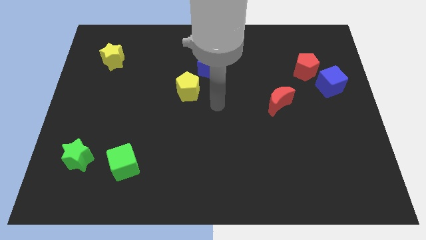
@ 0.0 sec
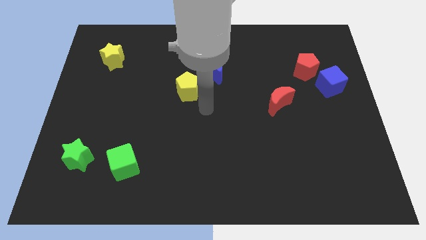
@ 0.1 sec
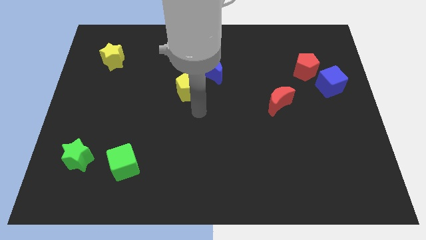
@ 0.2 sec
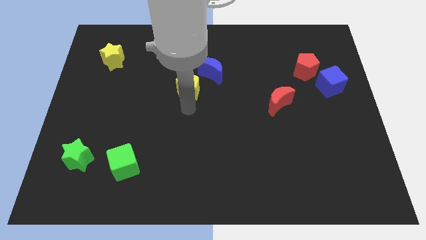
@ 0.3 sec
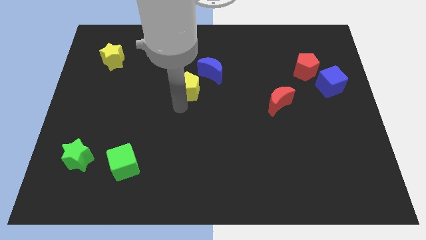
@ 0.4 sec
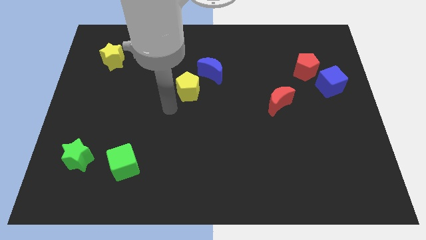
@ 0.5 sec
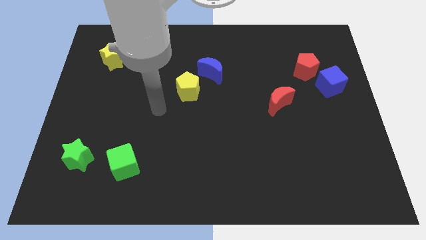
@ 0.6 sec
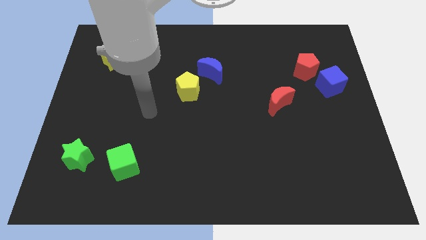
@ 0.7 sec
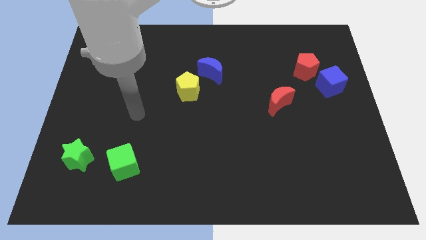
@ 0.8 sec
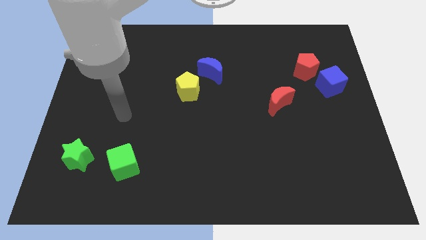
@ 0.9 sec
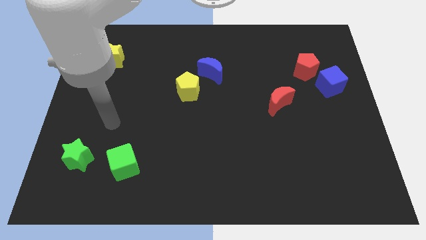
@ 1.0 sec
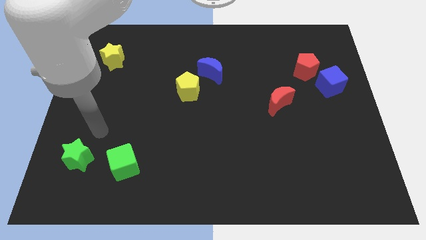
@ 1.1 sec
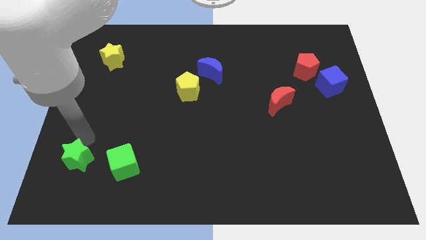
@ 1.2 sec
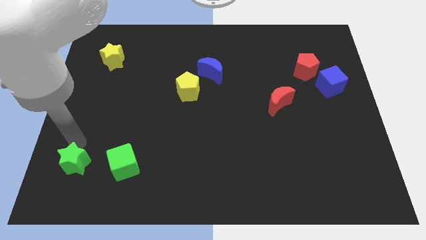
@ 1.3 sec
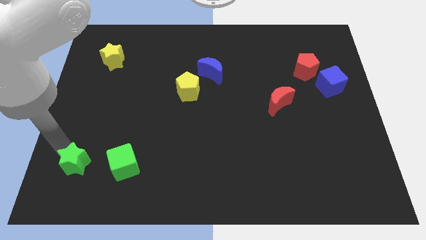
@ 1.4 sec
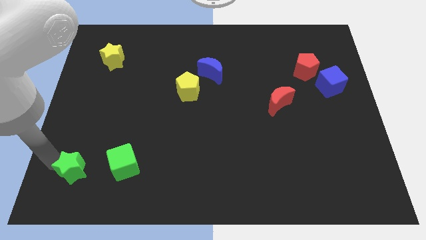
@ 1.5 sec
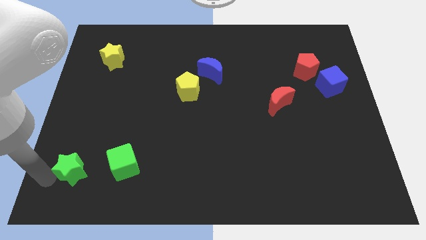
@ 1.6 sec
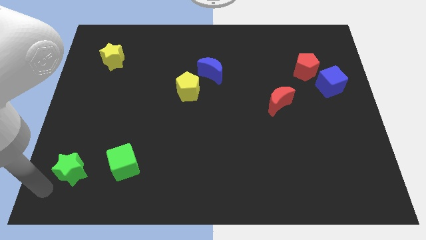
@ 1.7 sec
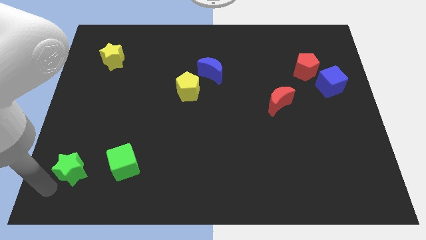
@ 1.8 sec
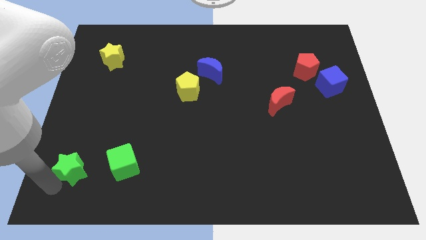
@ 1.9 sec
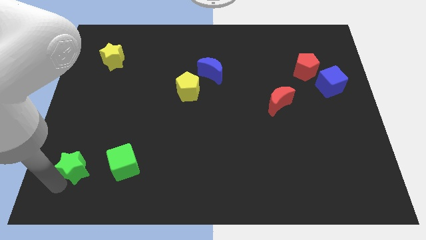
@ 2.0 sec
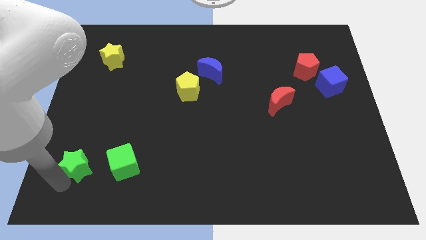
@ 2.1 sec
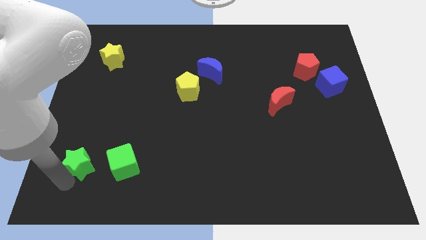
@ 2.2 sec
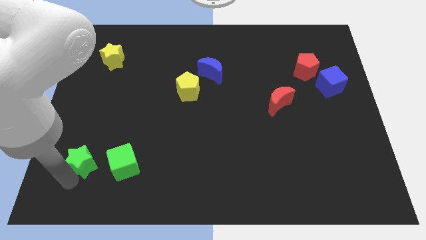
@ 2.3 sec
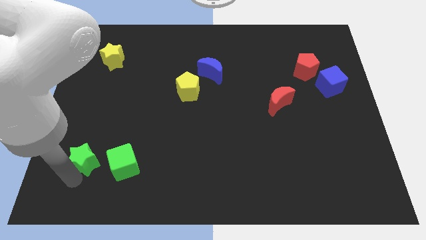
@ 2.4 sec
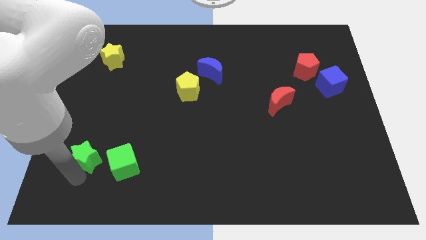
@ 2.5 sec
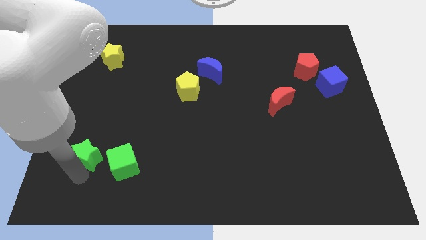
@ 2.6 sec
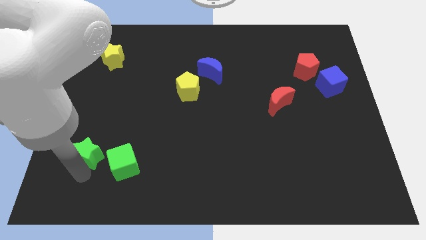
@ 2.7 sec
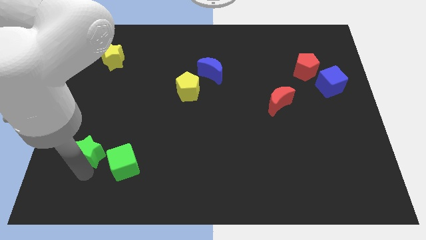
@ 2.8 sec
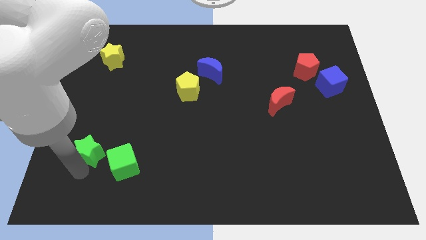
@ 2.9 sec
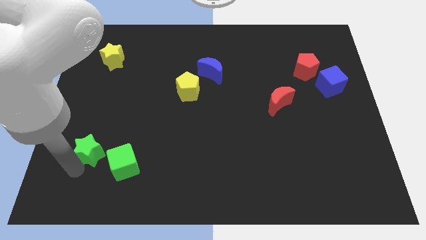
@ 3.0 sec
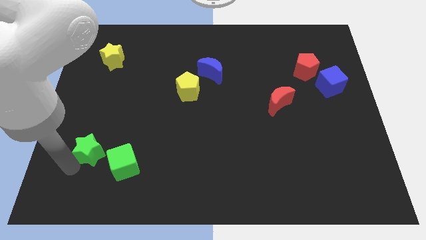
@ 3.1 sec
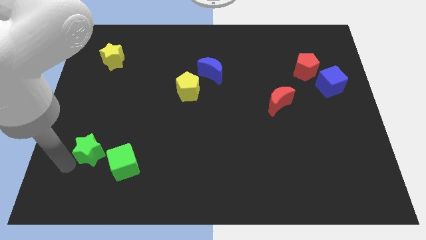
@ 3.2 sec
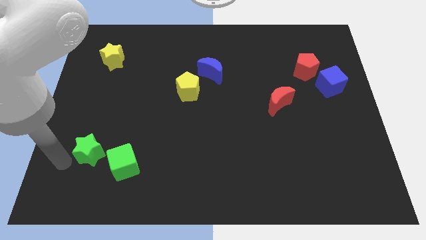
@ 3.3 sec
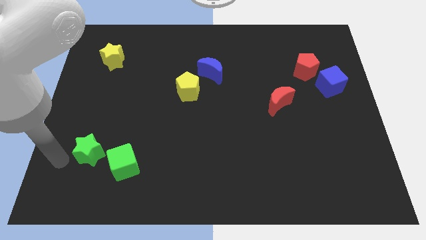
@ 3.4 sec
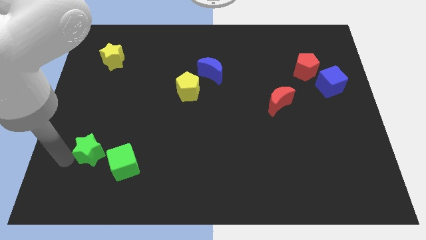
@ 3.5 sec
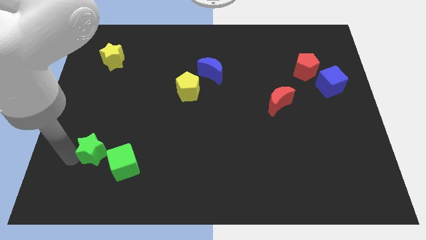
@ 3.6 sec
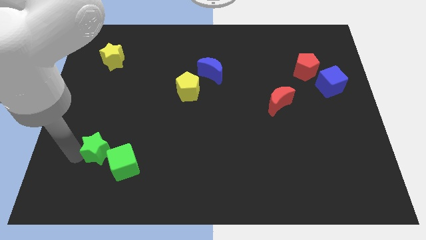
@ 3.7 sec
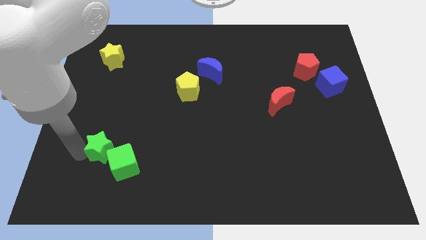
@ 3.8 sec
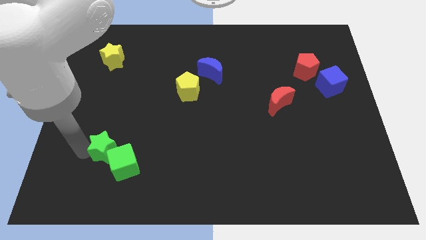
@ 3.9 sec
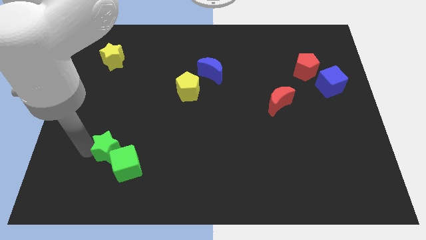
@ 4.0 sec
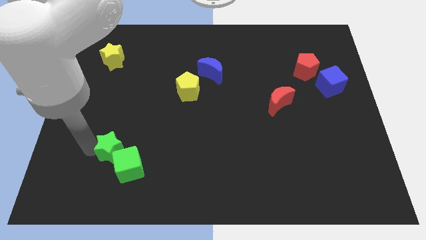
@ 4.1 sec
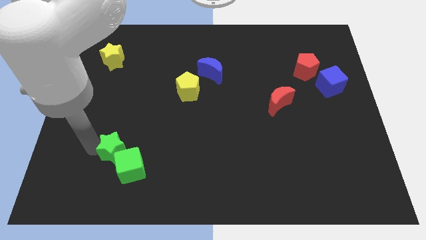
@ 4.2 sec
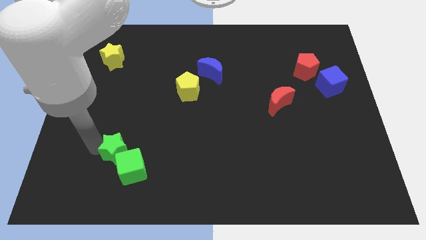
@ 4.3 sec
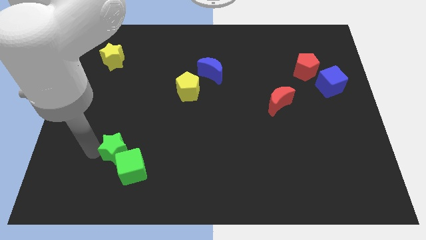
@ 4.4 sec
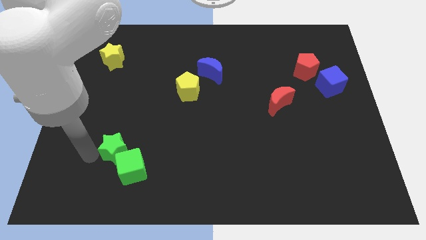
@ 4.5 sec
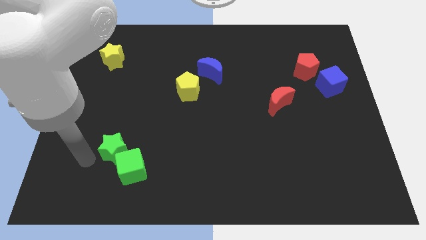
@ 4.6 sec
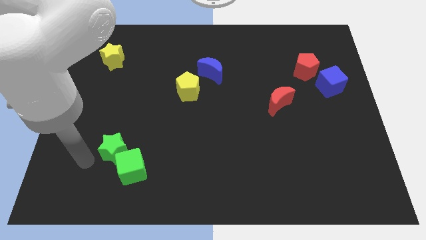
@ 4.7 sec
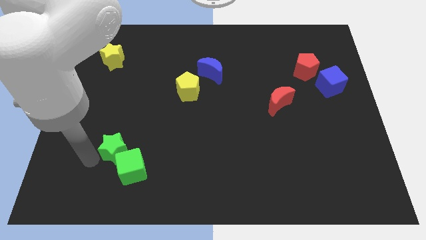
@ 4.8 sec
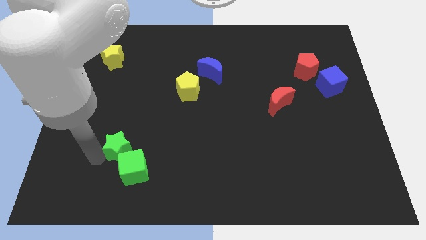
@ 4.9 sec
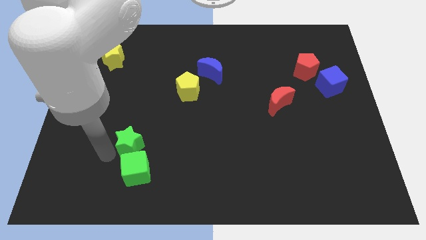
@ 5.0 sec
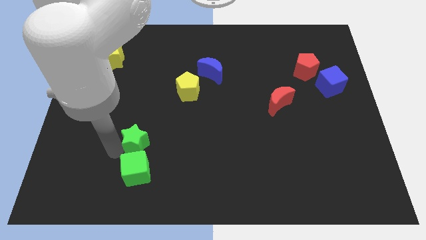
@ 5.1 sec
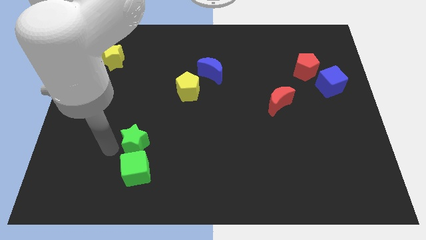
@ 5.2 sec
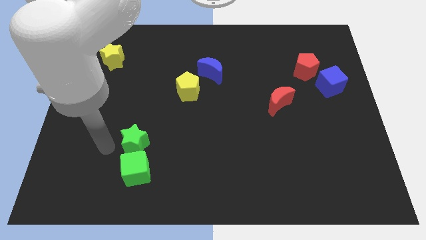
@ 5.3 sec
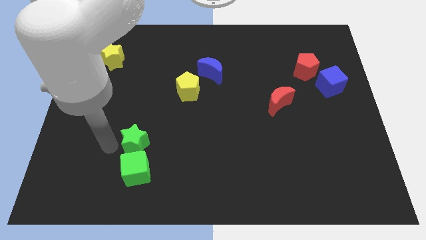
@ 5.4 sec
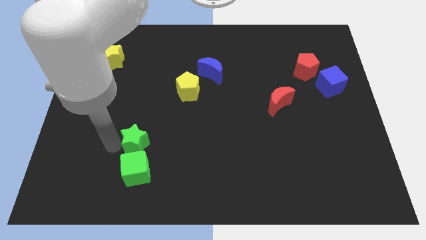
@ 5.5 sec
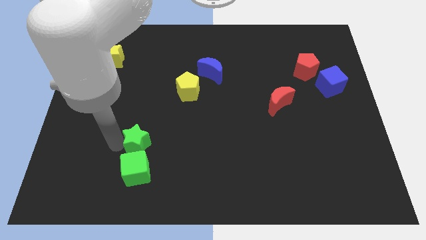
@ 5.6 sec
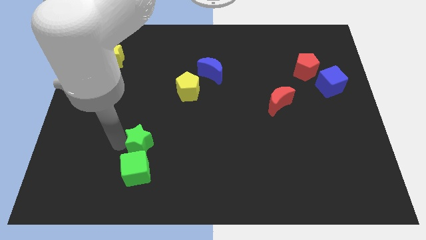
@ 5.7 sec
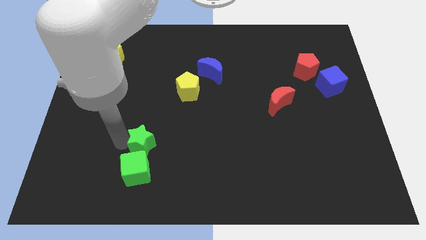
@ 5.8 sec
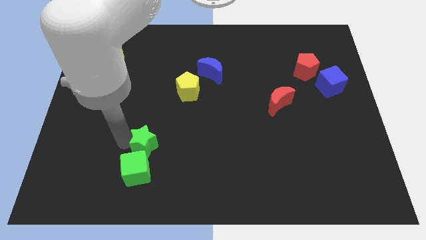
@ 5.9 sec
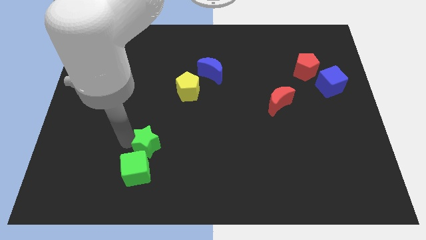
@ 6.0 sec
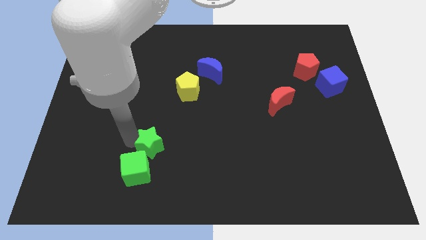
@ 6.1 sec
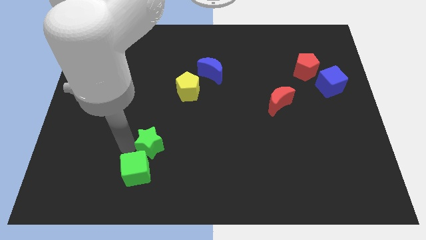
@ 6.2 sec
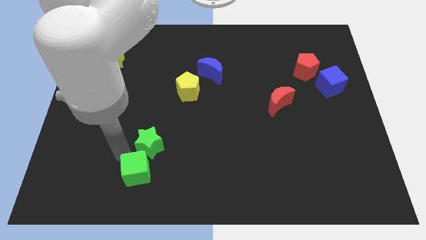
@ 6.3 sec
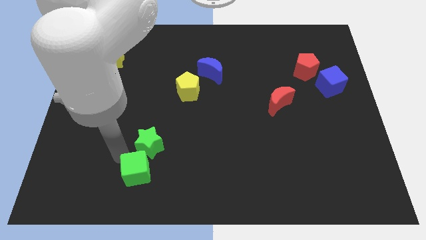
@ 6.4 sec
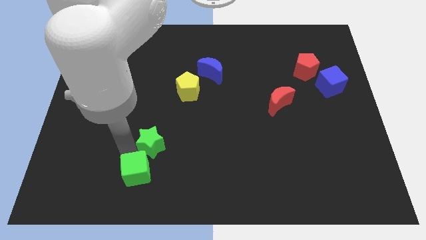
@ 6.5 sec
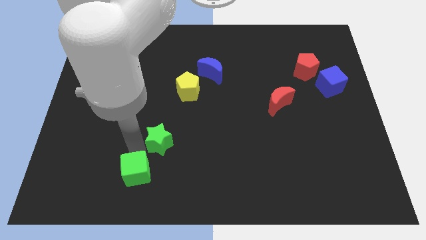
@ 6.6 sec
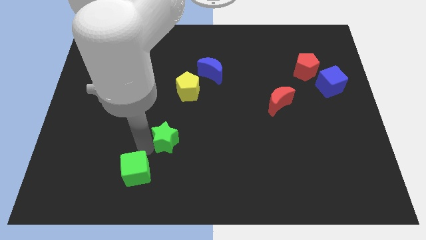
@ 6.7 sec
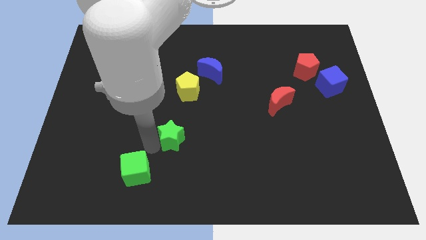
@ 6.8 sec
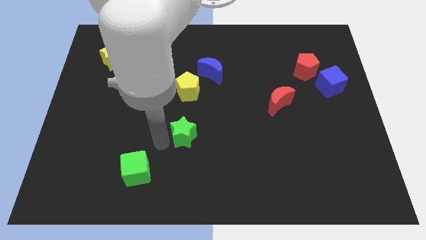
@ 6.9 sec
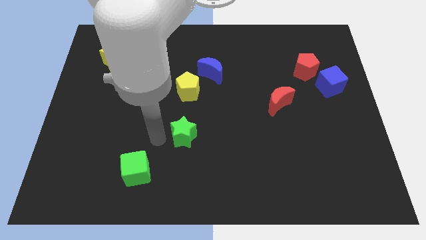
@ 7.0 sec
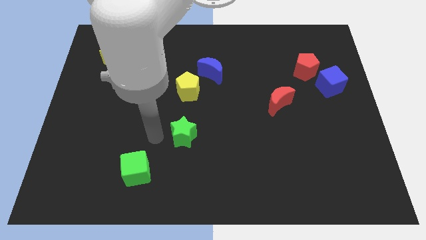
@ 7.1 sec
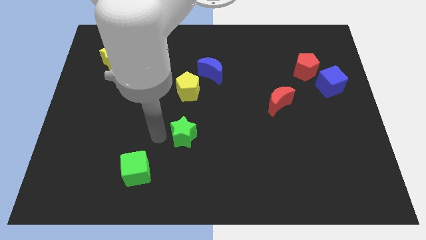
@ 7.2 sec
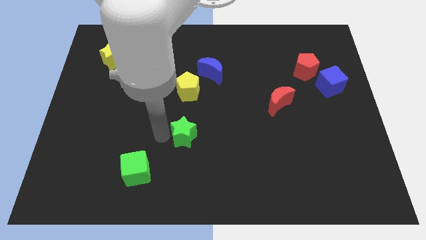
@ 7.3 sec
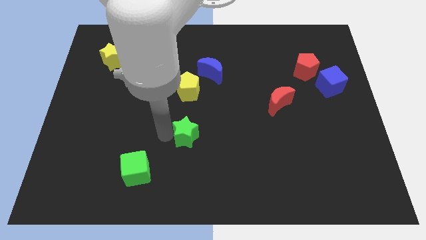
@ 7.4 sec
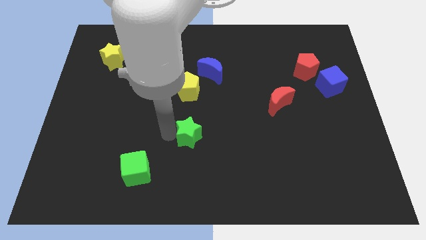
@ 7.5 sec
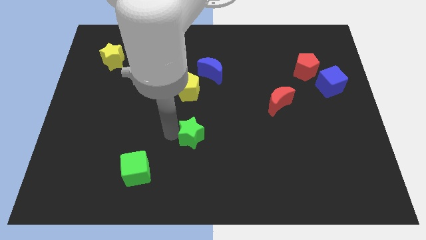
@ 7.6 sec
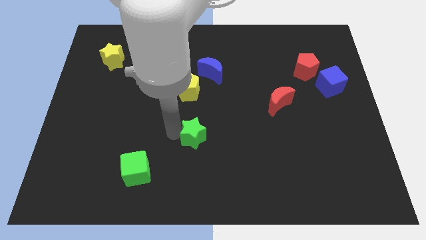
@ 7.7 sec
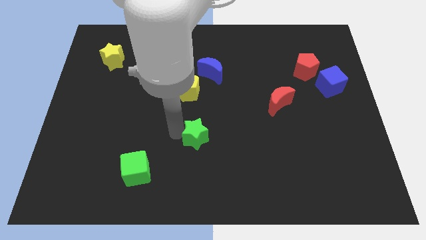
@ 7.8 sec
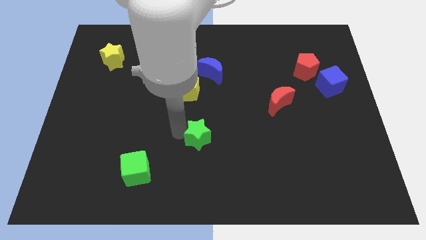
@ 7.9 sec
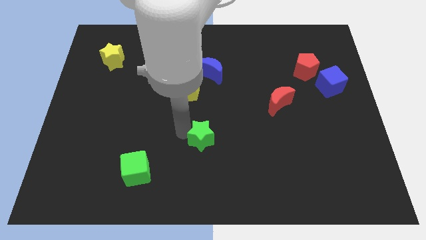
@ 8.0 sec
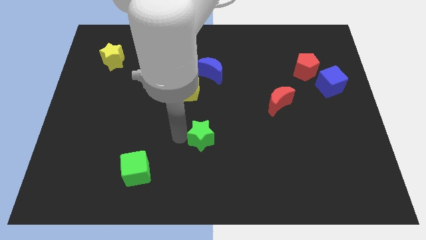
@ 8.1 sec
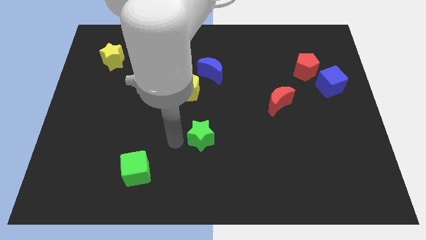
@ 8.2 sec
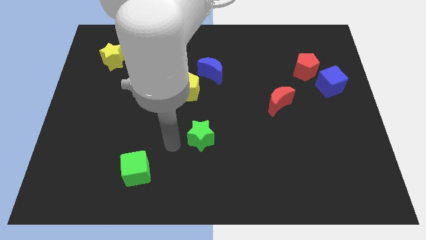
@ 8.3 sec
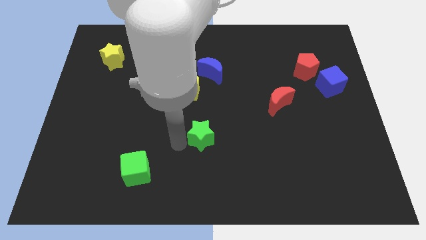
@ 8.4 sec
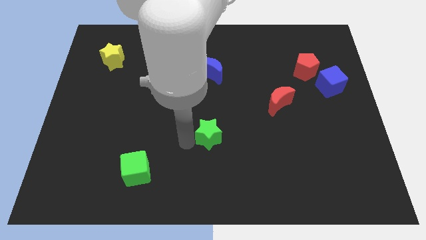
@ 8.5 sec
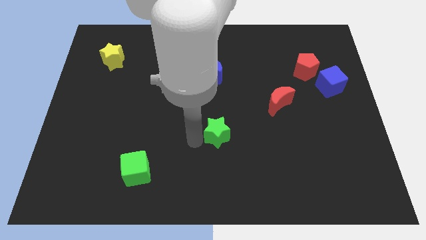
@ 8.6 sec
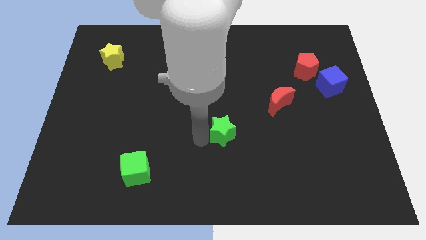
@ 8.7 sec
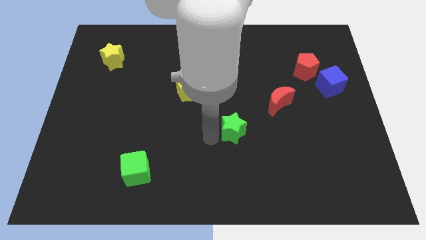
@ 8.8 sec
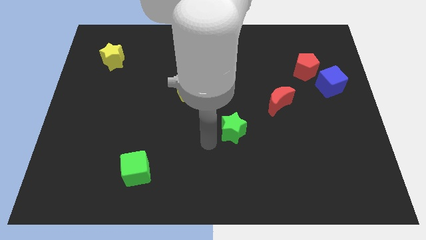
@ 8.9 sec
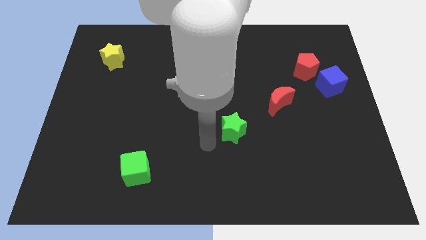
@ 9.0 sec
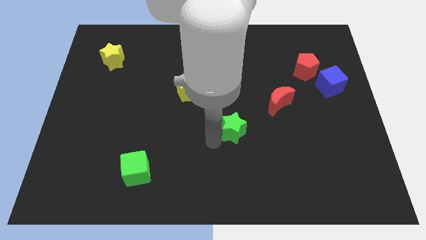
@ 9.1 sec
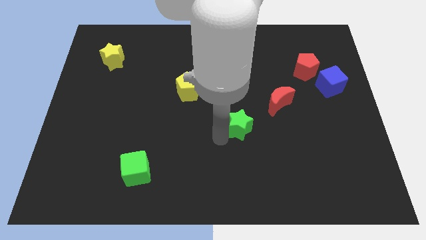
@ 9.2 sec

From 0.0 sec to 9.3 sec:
move the green star diagonally down and to the left of the red moon
